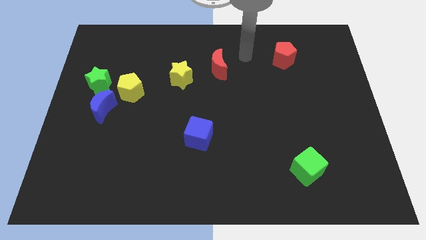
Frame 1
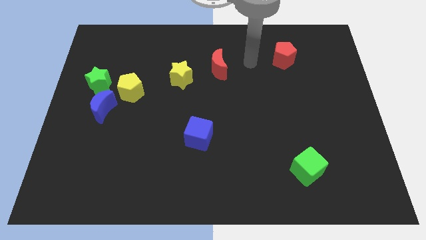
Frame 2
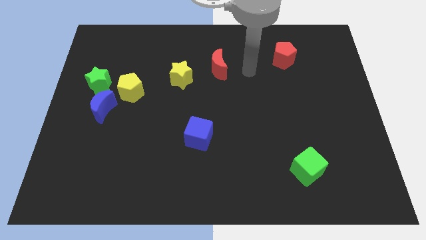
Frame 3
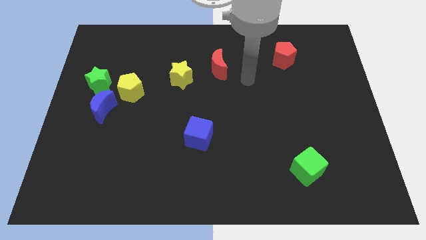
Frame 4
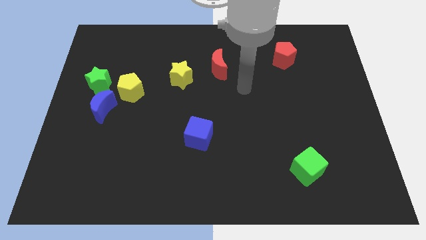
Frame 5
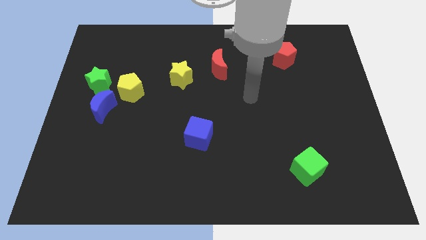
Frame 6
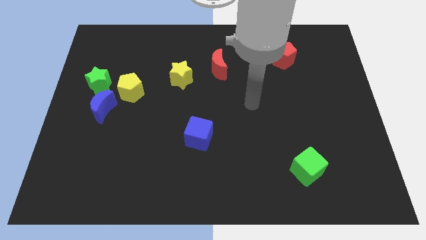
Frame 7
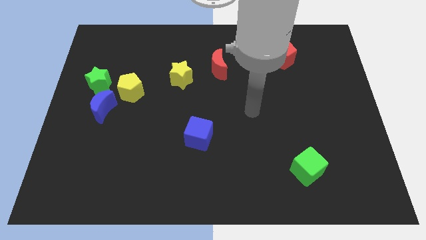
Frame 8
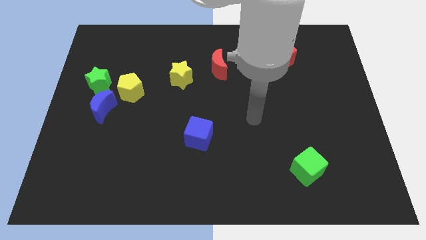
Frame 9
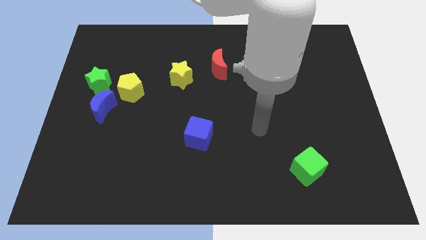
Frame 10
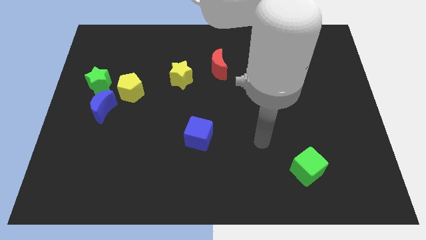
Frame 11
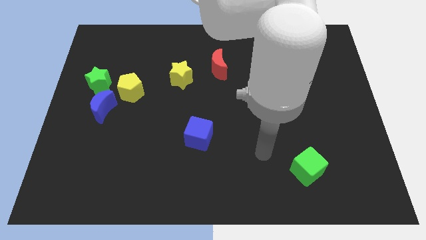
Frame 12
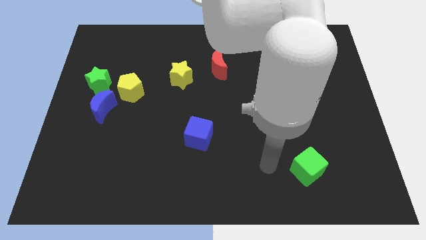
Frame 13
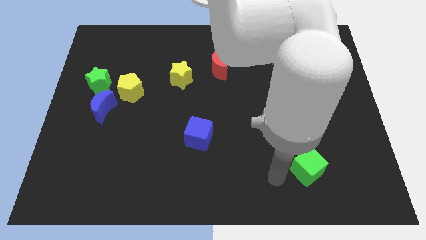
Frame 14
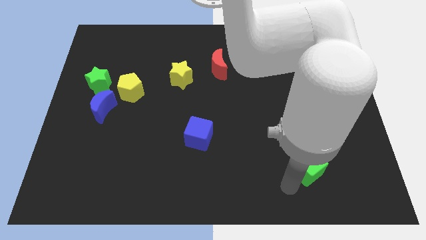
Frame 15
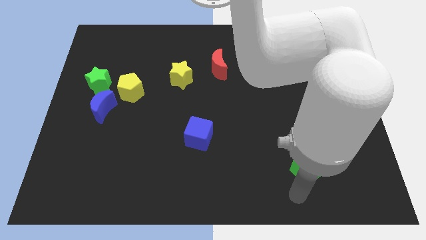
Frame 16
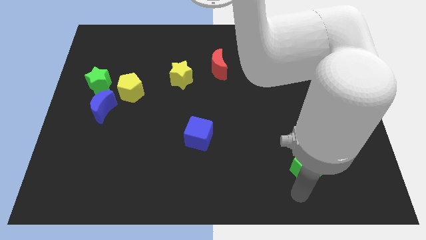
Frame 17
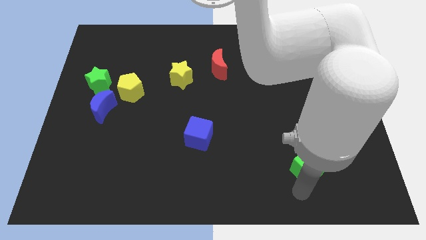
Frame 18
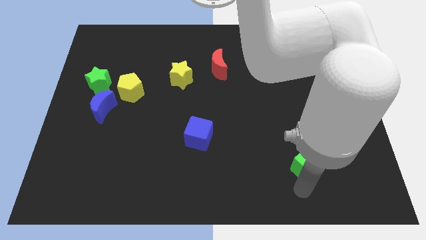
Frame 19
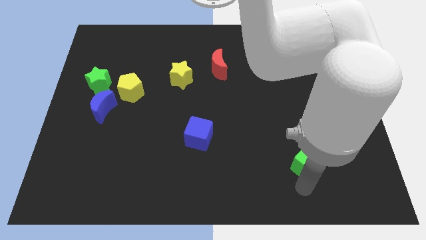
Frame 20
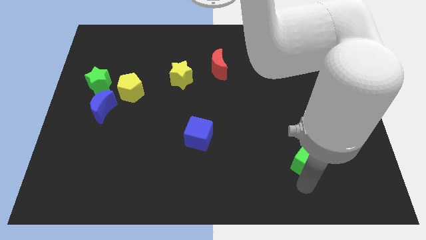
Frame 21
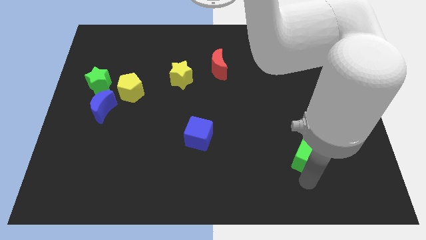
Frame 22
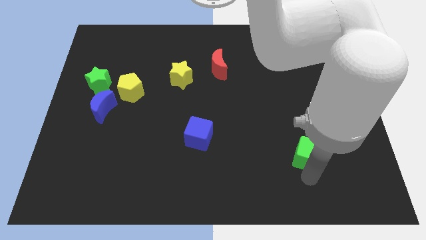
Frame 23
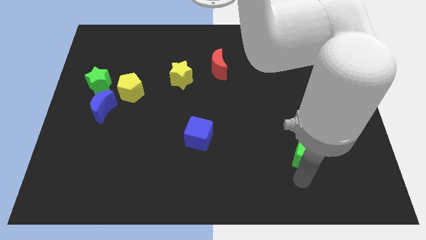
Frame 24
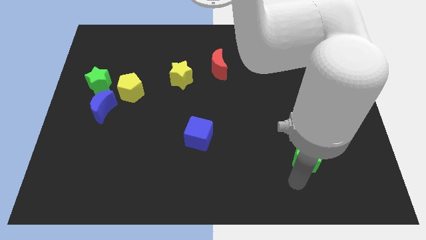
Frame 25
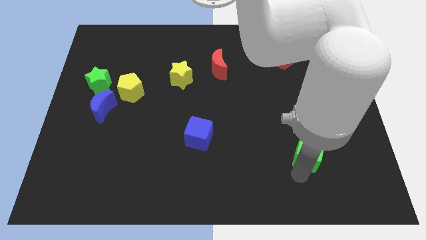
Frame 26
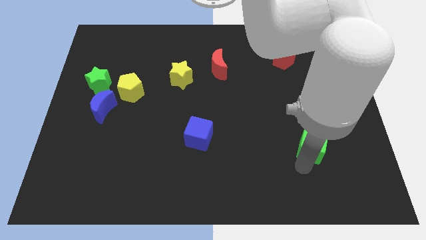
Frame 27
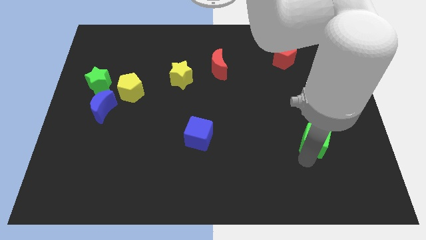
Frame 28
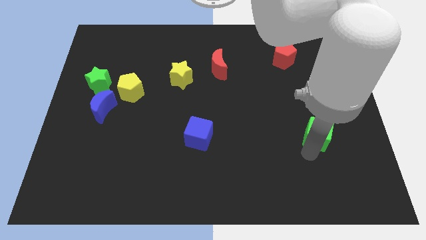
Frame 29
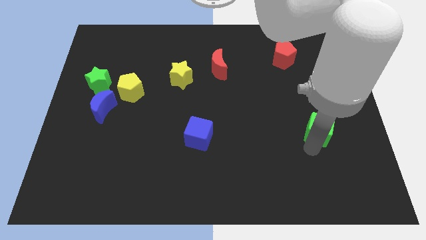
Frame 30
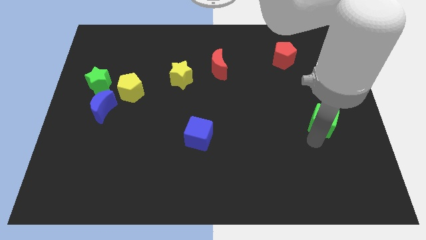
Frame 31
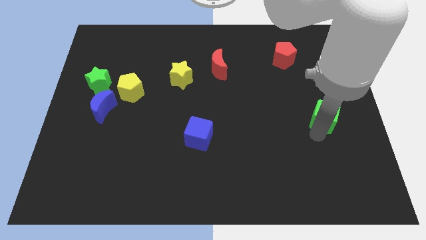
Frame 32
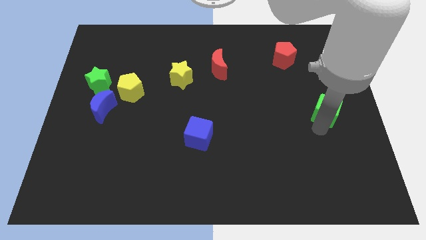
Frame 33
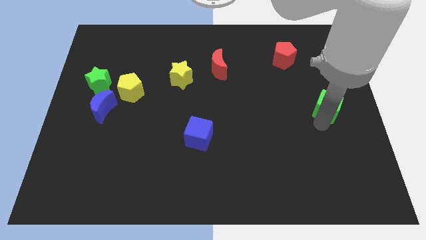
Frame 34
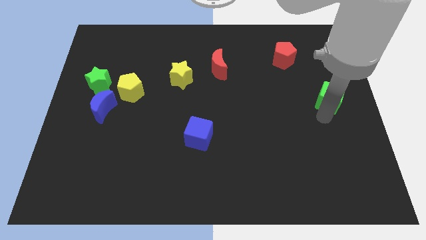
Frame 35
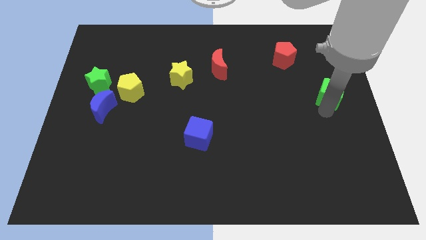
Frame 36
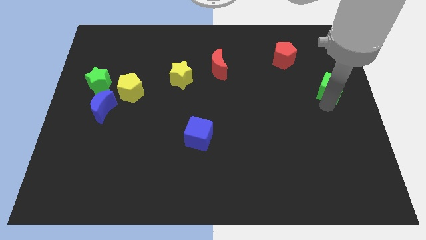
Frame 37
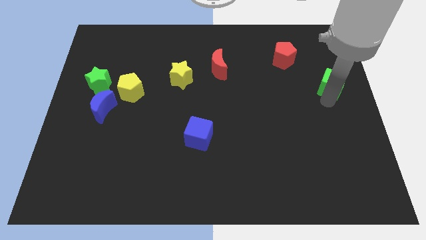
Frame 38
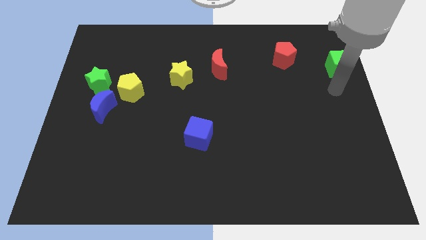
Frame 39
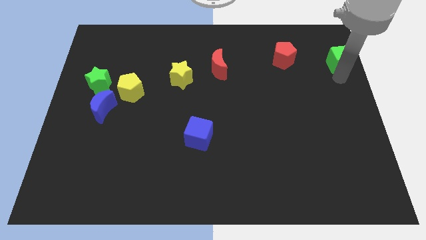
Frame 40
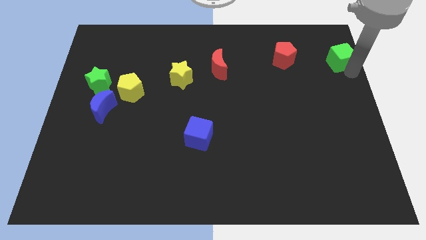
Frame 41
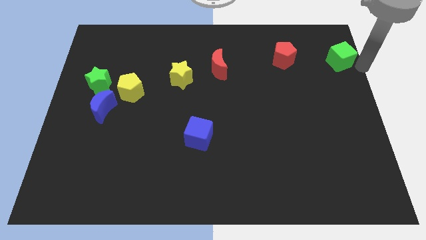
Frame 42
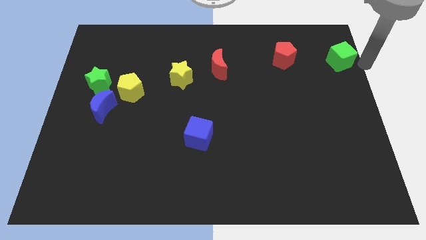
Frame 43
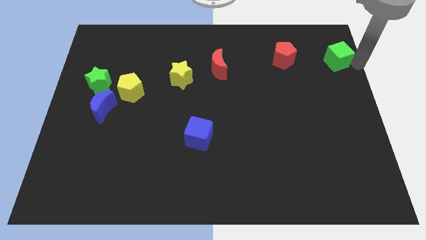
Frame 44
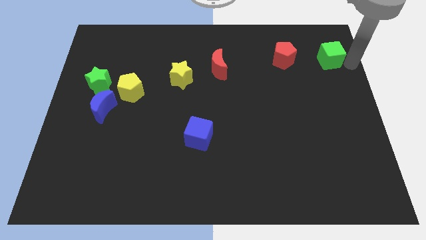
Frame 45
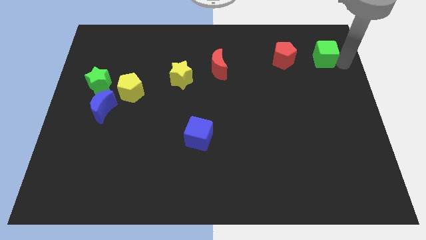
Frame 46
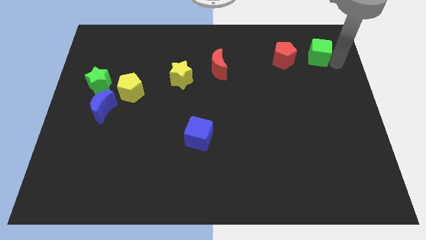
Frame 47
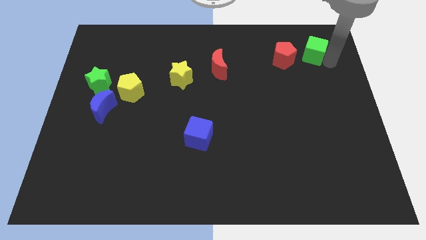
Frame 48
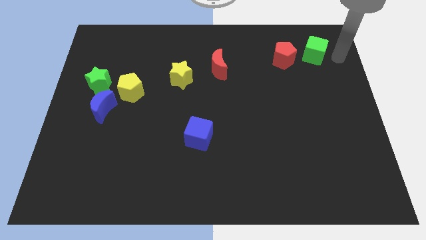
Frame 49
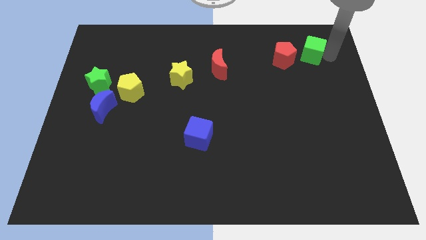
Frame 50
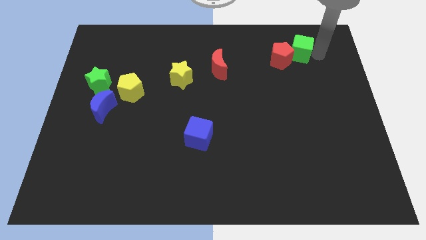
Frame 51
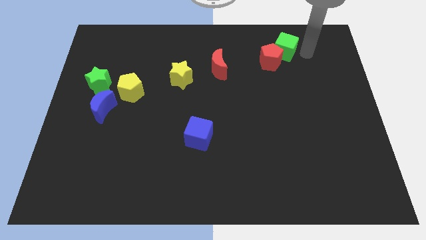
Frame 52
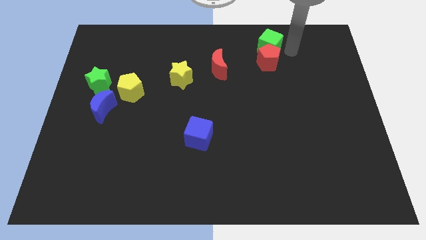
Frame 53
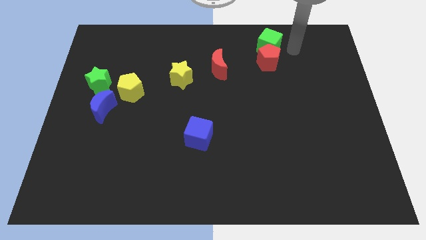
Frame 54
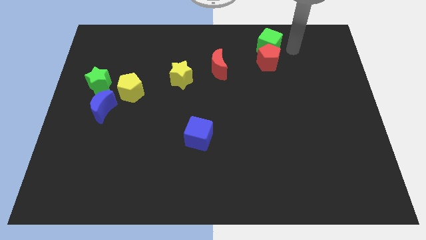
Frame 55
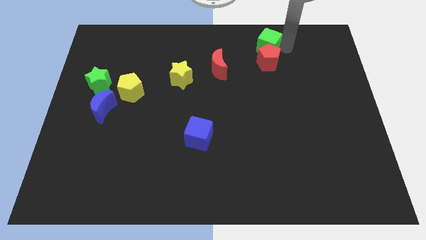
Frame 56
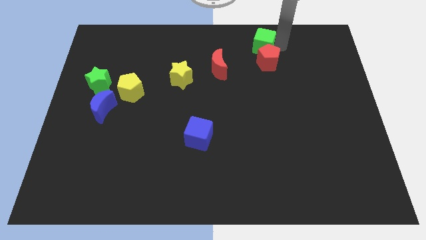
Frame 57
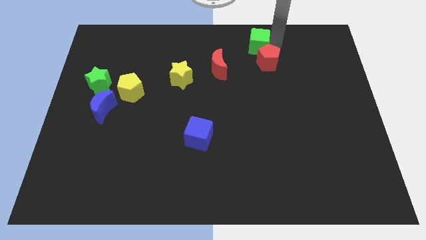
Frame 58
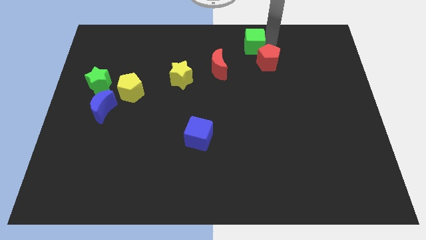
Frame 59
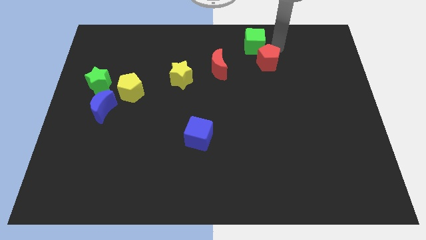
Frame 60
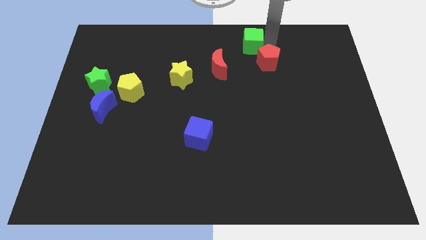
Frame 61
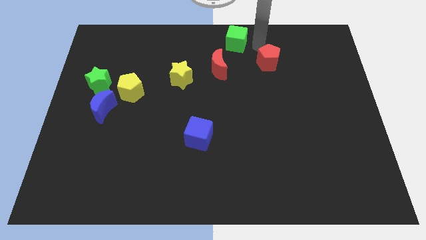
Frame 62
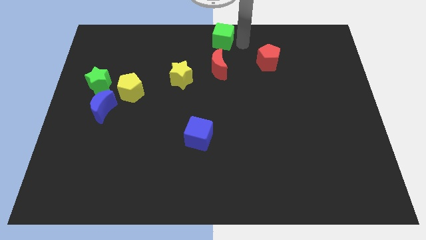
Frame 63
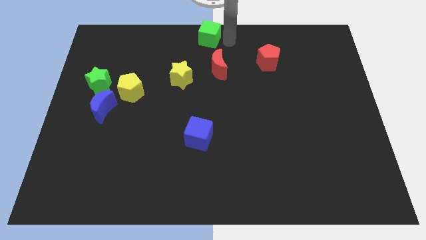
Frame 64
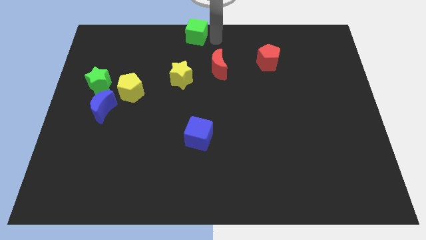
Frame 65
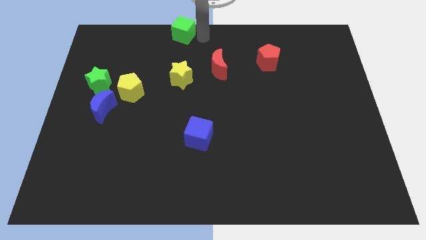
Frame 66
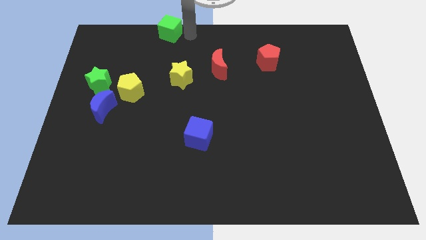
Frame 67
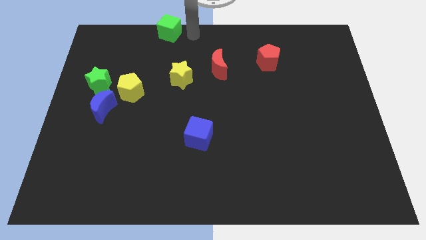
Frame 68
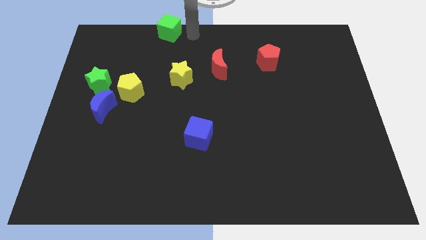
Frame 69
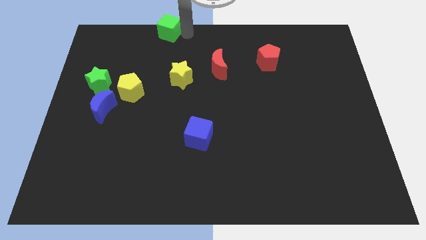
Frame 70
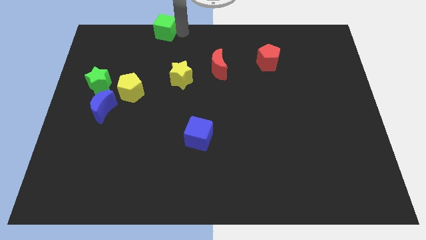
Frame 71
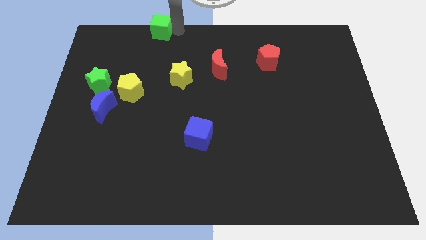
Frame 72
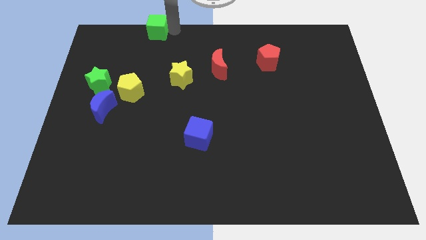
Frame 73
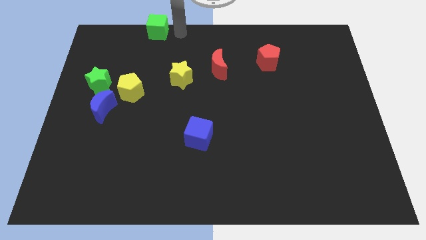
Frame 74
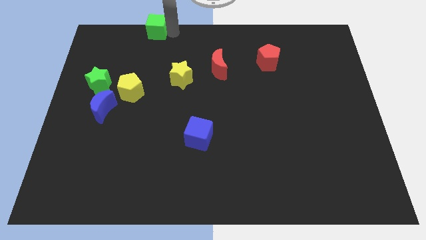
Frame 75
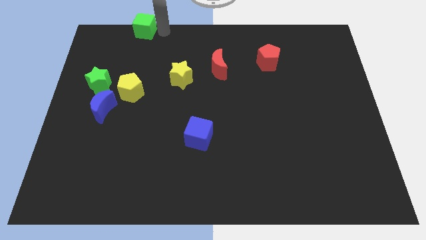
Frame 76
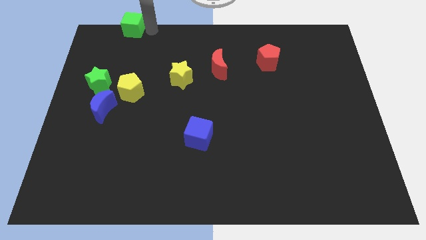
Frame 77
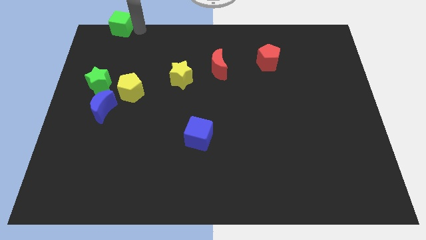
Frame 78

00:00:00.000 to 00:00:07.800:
move the green cube to the top left
